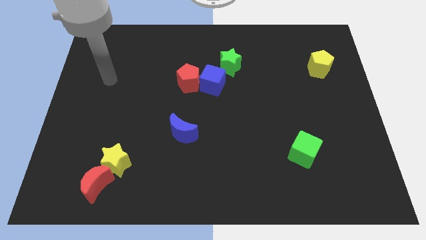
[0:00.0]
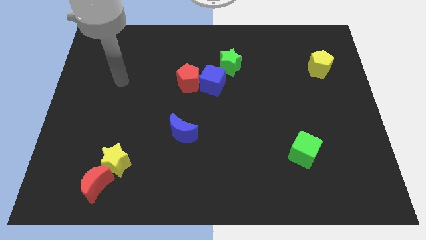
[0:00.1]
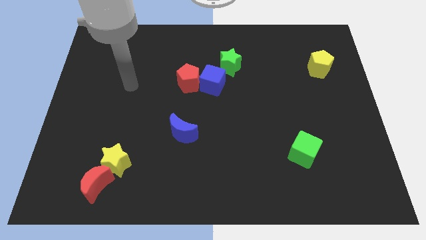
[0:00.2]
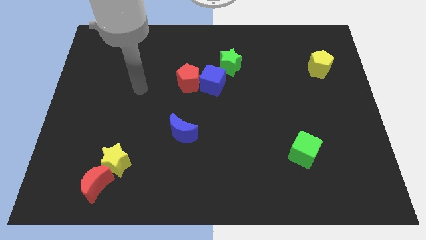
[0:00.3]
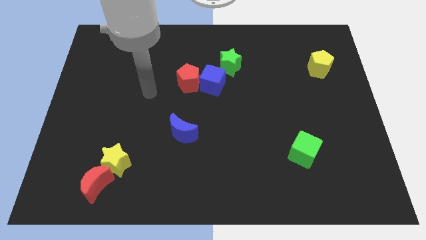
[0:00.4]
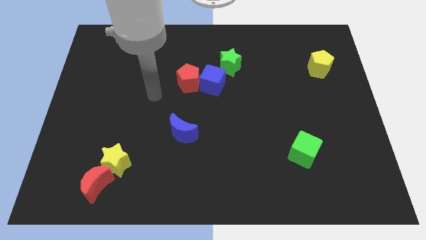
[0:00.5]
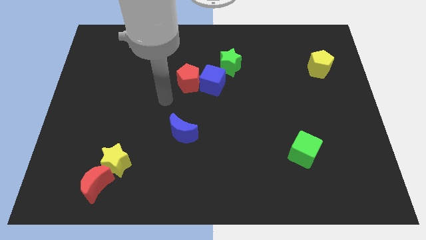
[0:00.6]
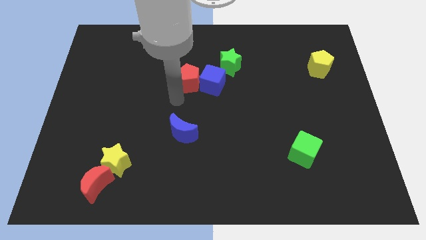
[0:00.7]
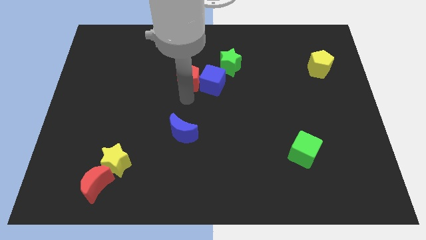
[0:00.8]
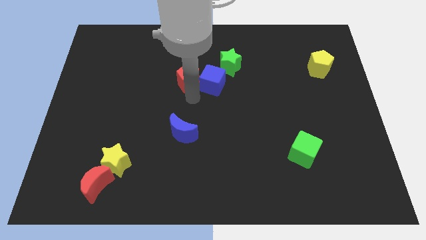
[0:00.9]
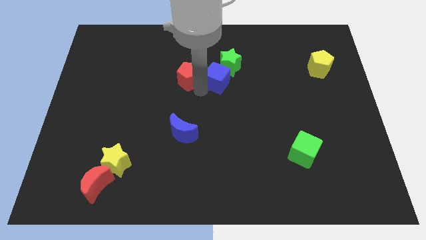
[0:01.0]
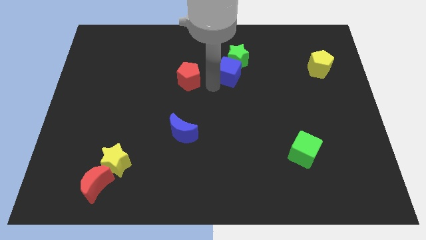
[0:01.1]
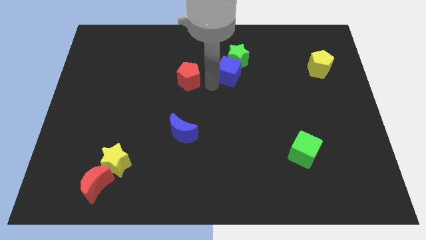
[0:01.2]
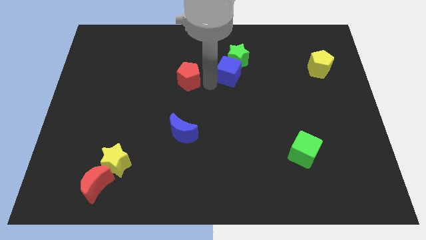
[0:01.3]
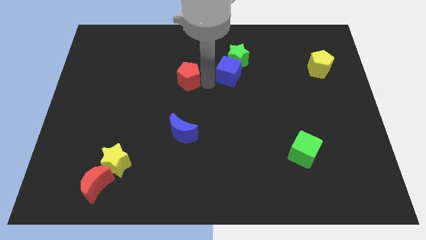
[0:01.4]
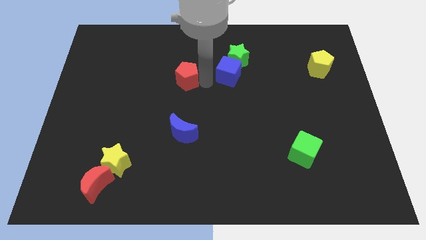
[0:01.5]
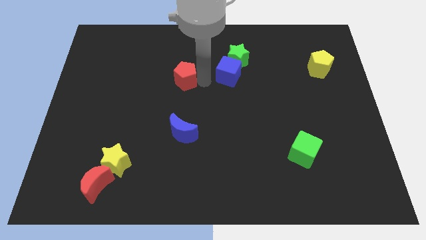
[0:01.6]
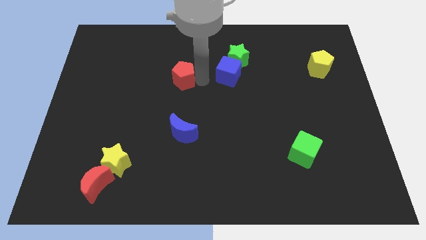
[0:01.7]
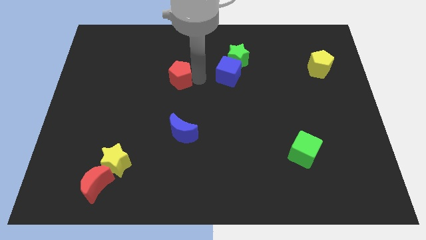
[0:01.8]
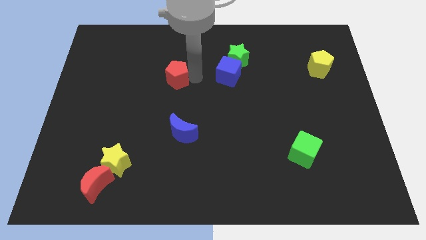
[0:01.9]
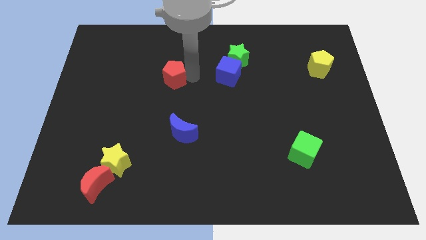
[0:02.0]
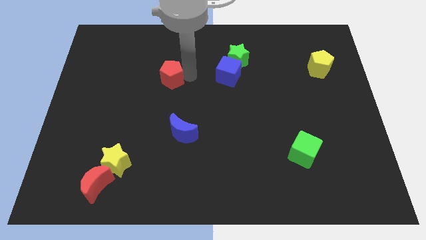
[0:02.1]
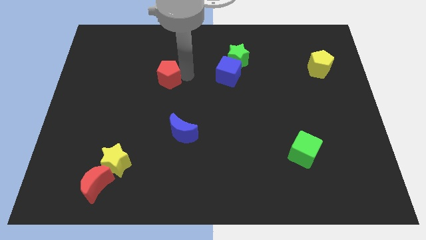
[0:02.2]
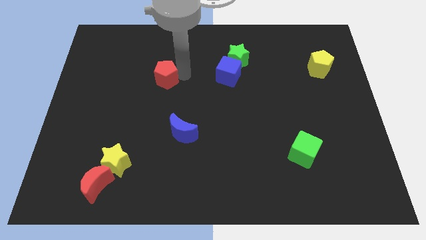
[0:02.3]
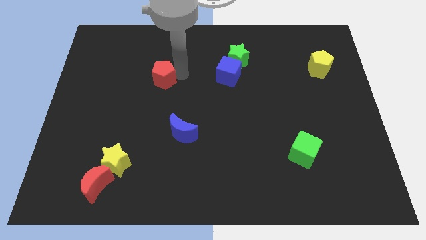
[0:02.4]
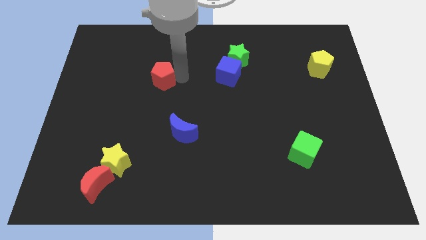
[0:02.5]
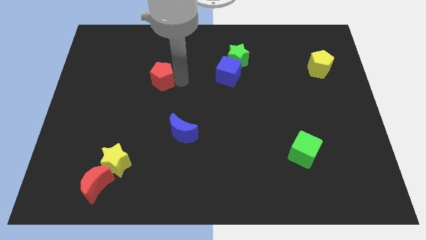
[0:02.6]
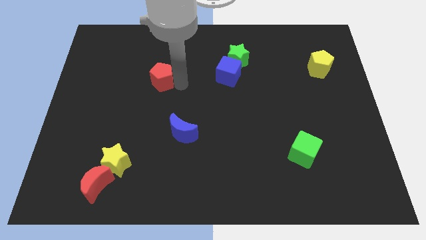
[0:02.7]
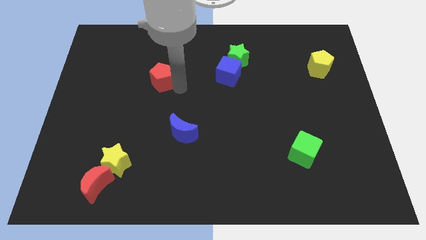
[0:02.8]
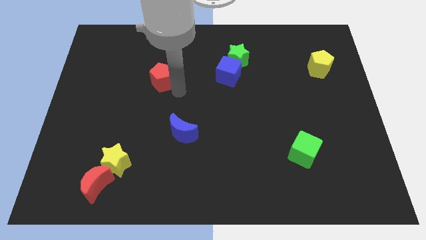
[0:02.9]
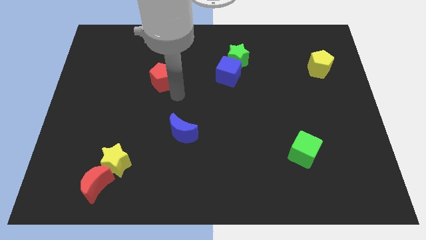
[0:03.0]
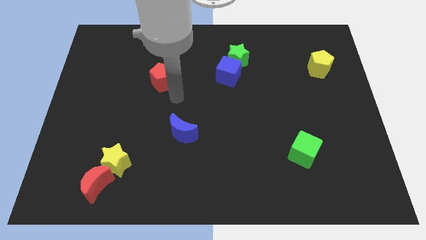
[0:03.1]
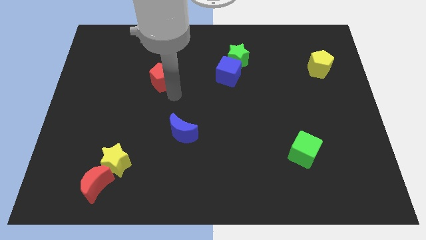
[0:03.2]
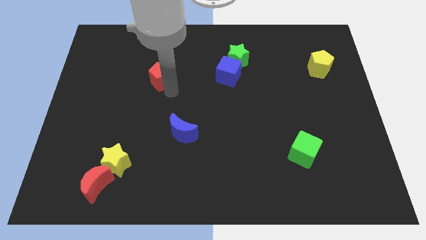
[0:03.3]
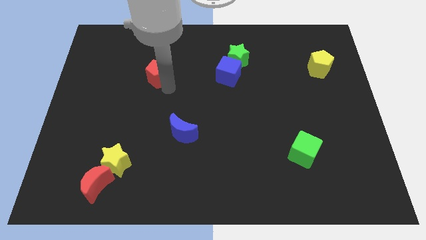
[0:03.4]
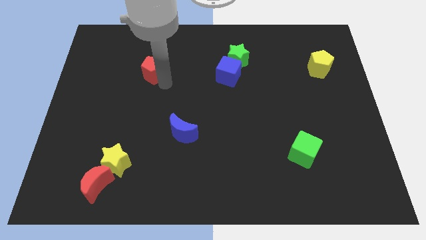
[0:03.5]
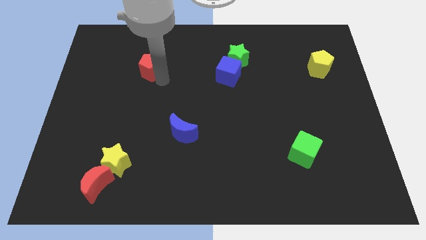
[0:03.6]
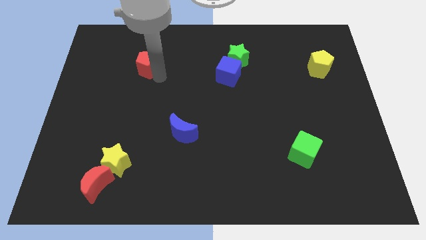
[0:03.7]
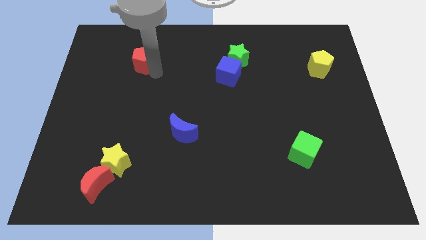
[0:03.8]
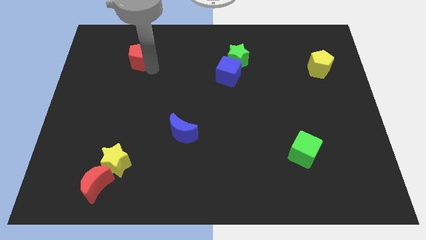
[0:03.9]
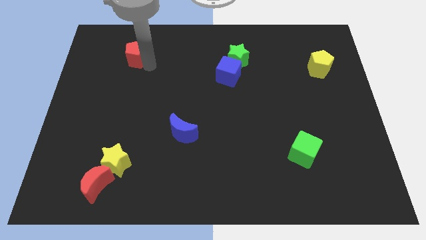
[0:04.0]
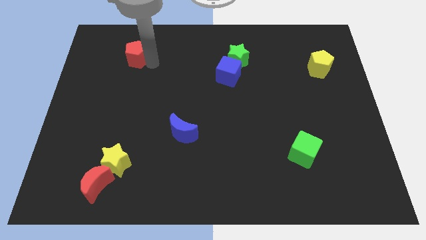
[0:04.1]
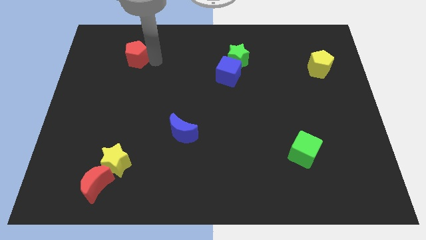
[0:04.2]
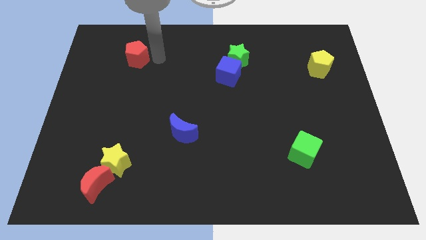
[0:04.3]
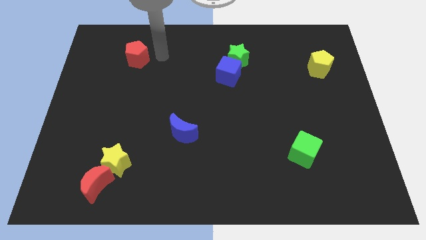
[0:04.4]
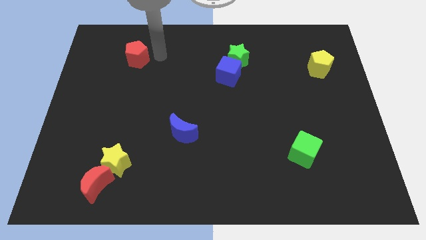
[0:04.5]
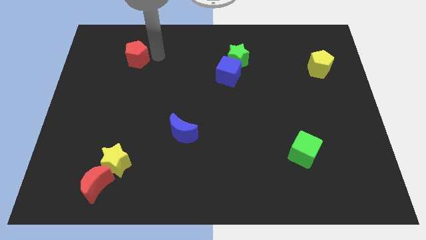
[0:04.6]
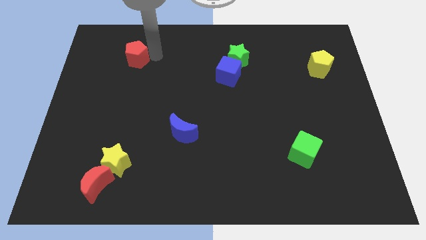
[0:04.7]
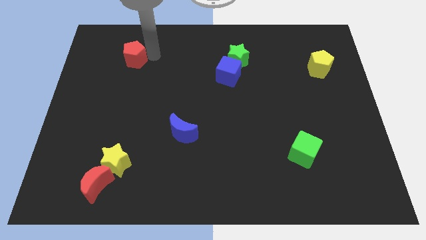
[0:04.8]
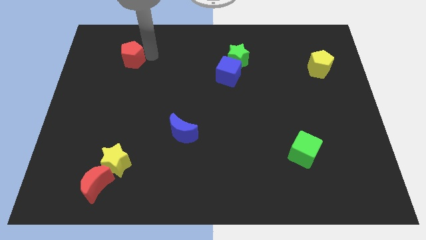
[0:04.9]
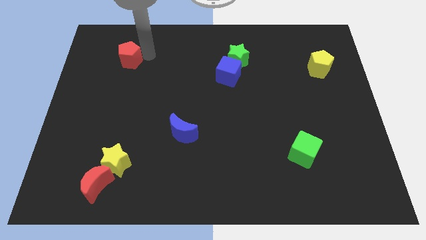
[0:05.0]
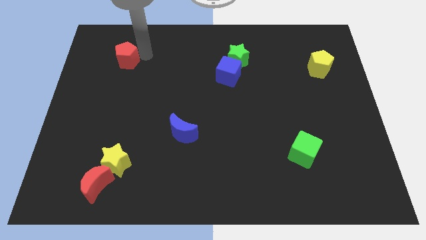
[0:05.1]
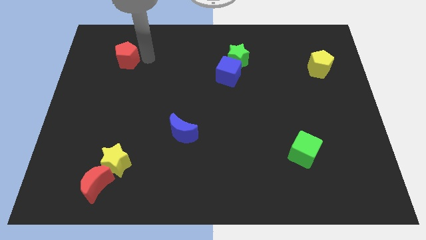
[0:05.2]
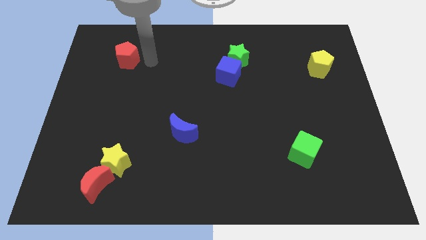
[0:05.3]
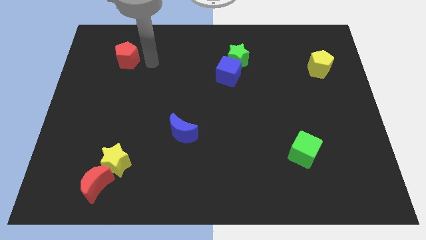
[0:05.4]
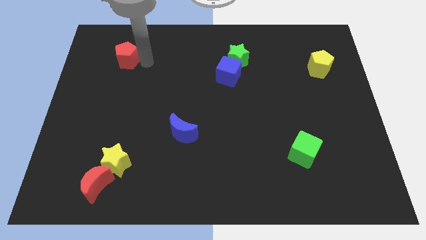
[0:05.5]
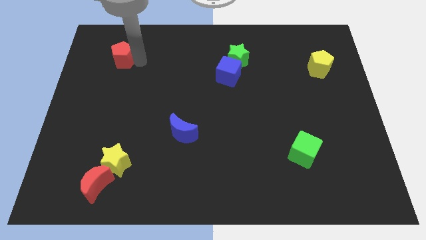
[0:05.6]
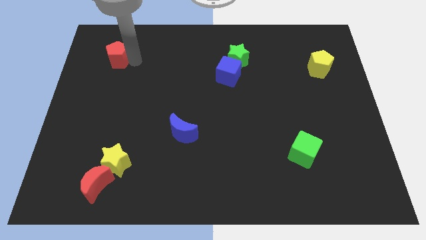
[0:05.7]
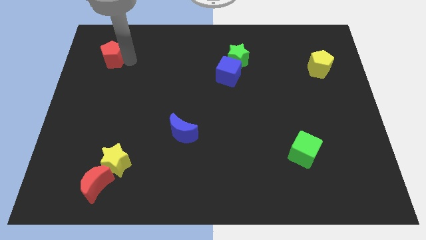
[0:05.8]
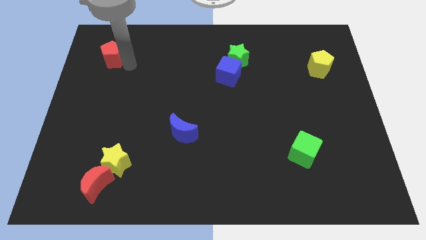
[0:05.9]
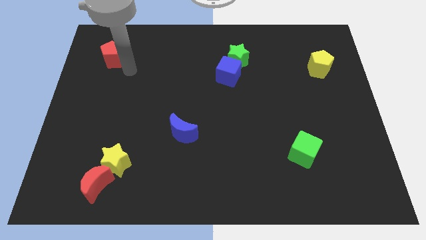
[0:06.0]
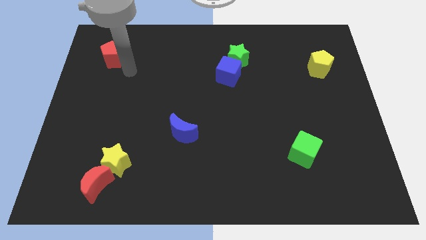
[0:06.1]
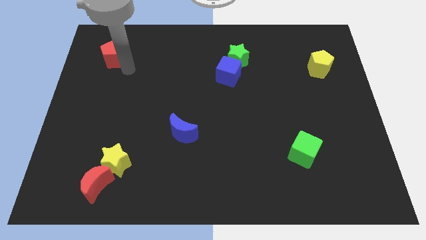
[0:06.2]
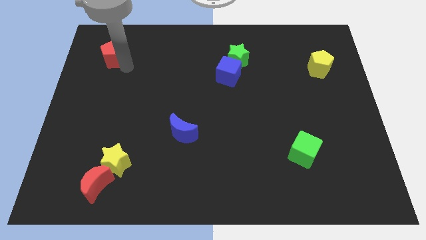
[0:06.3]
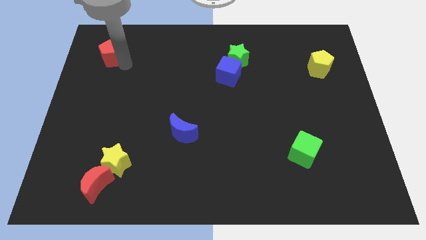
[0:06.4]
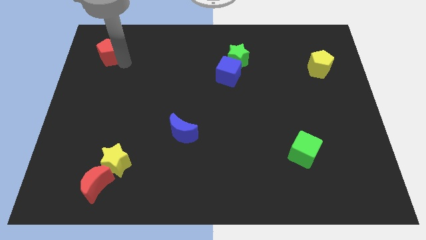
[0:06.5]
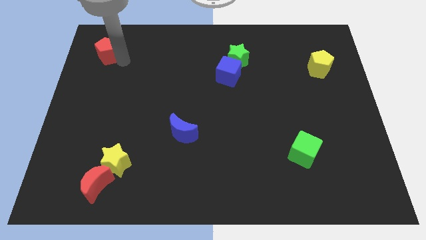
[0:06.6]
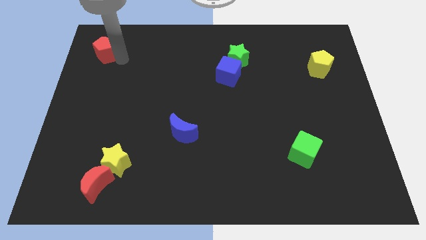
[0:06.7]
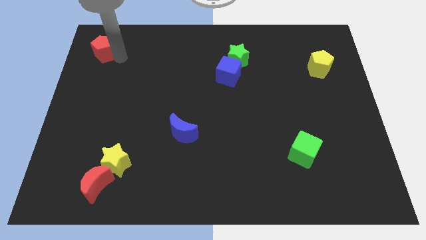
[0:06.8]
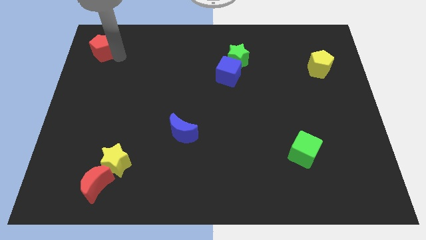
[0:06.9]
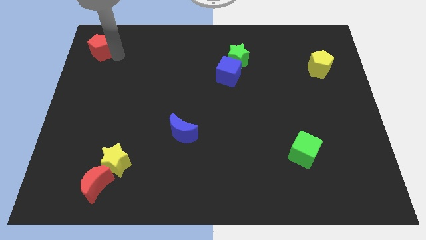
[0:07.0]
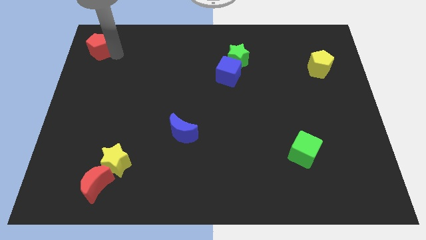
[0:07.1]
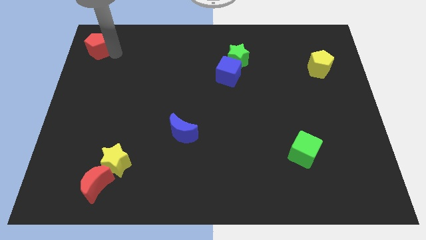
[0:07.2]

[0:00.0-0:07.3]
move the red pentagon to the top left

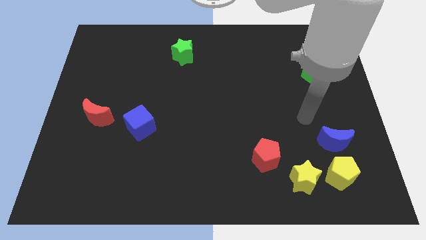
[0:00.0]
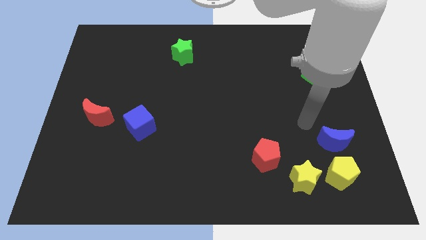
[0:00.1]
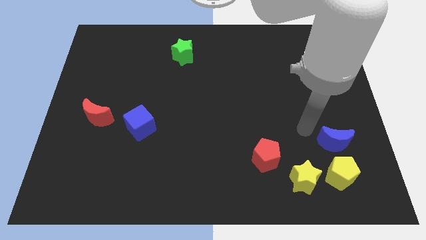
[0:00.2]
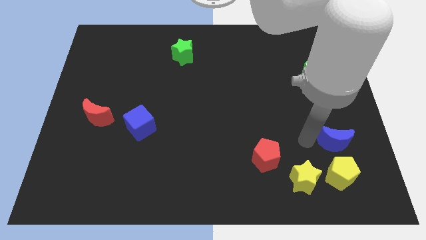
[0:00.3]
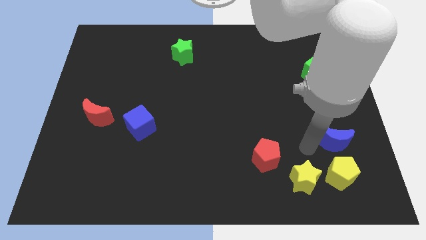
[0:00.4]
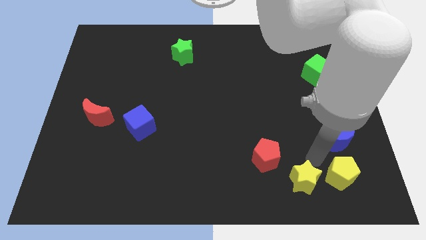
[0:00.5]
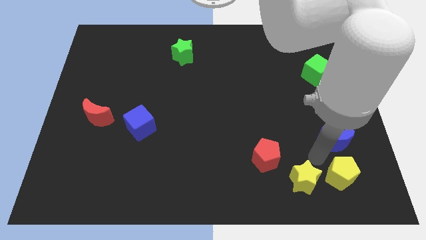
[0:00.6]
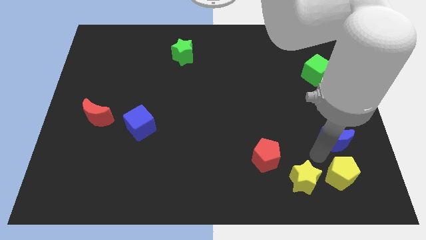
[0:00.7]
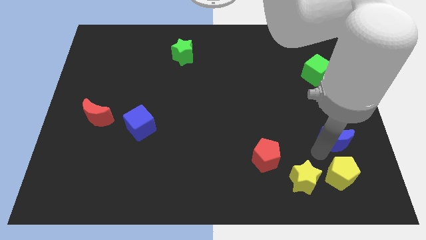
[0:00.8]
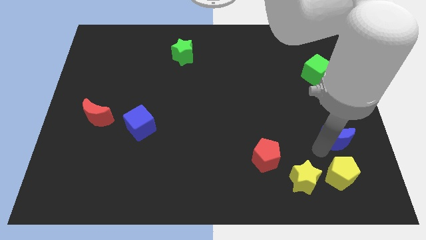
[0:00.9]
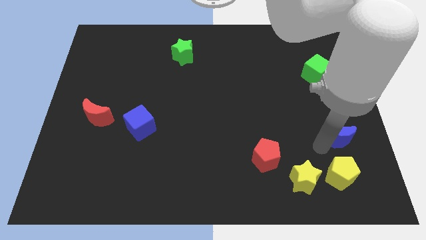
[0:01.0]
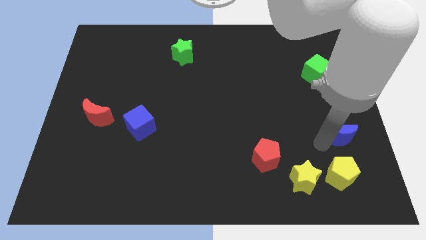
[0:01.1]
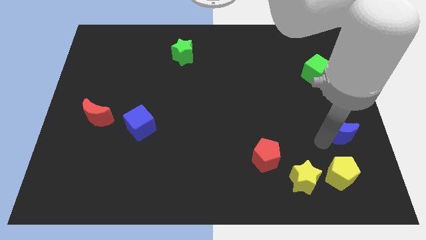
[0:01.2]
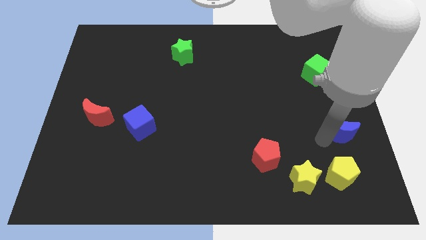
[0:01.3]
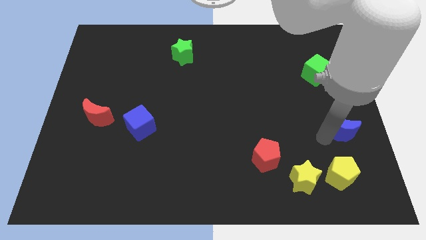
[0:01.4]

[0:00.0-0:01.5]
put the blue moon to the center right
